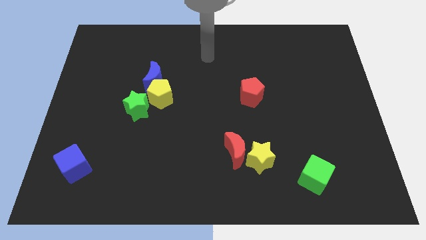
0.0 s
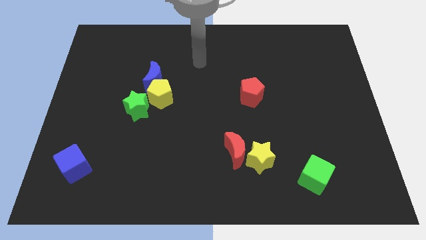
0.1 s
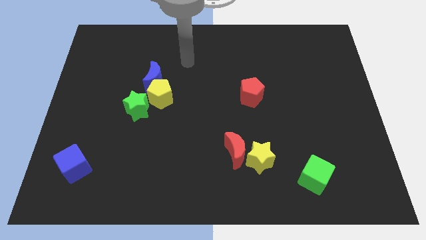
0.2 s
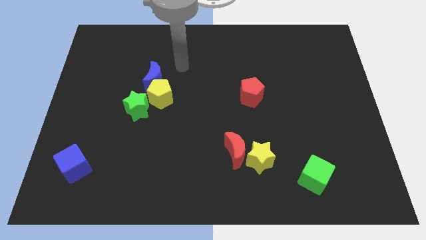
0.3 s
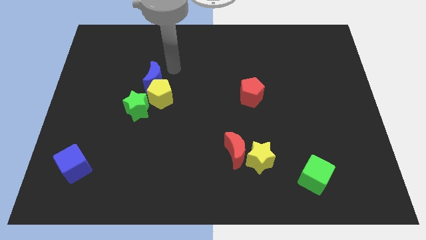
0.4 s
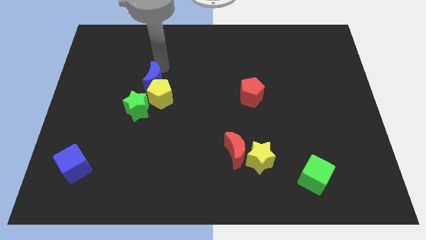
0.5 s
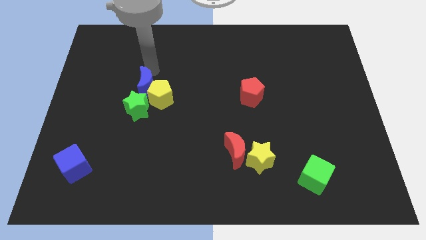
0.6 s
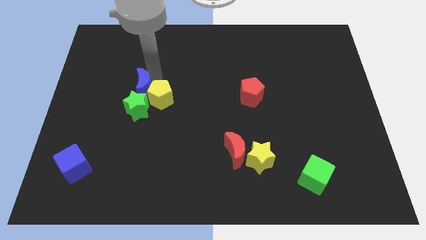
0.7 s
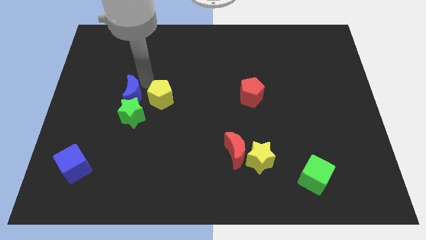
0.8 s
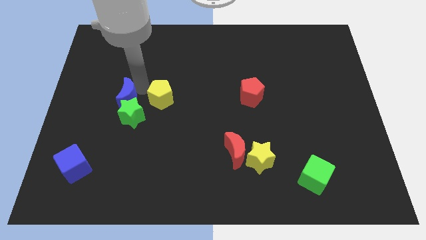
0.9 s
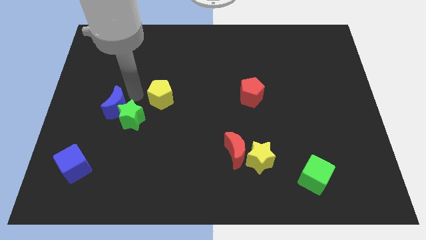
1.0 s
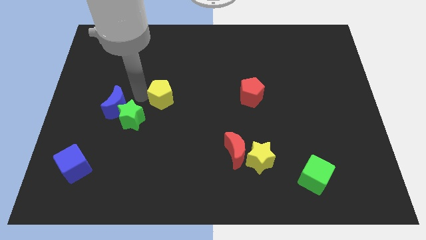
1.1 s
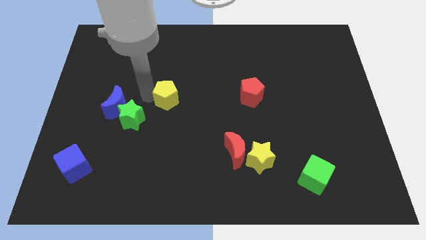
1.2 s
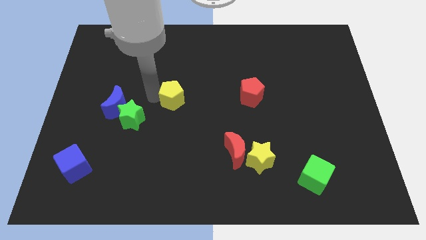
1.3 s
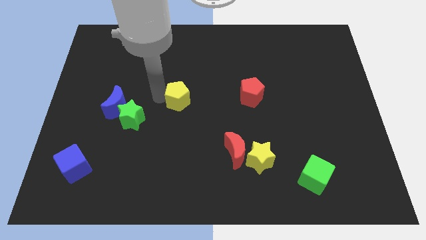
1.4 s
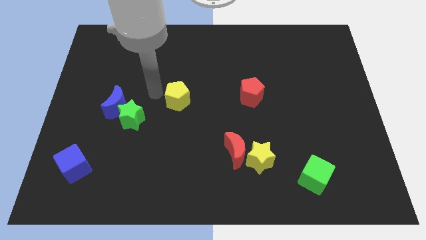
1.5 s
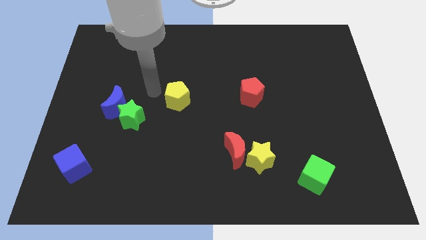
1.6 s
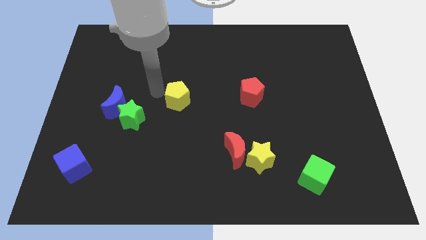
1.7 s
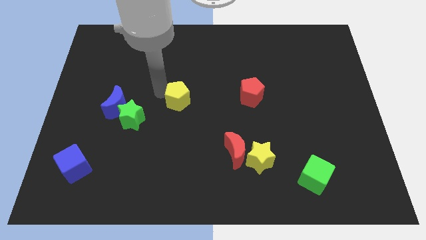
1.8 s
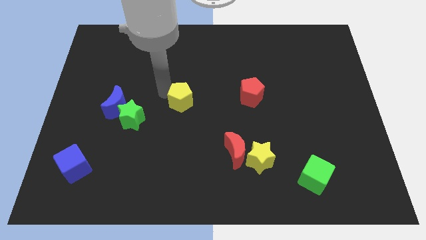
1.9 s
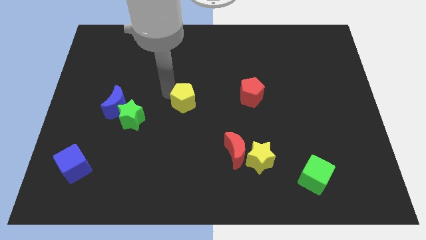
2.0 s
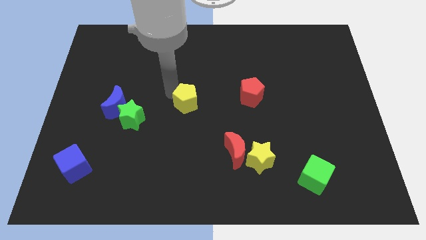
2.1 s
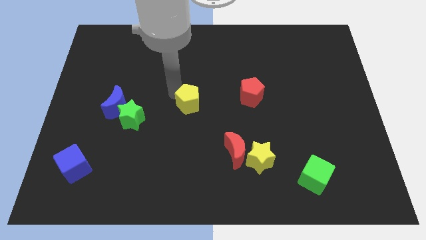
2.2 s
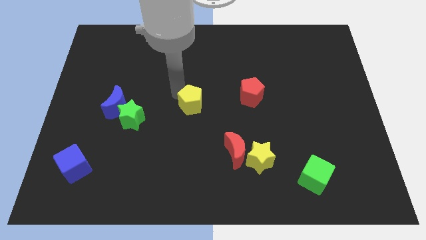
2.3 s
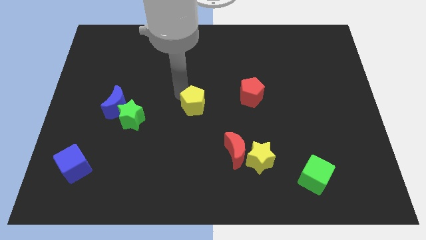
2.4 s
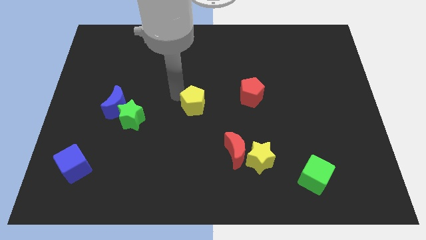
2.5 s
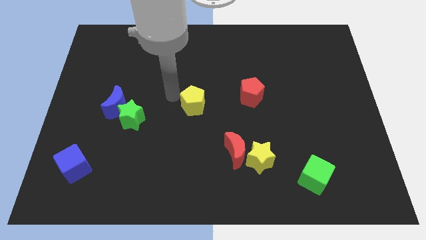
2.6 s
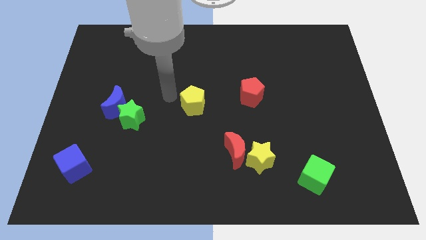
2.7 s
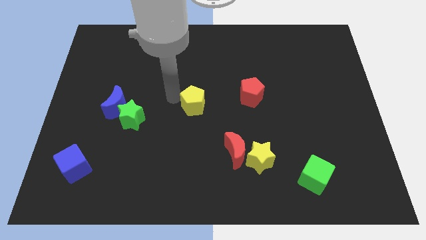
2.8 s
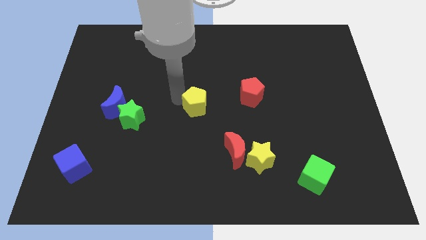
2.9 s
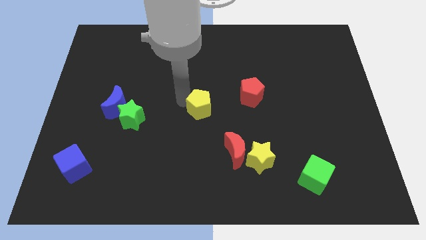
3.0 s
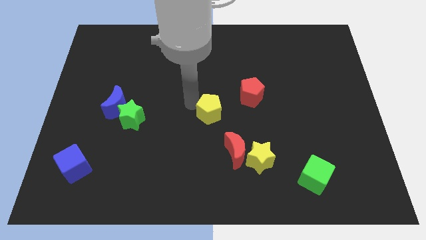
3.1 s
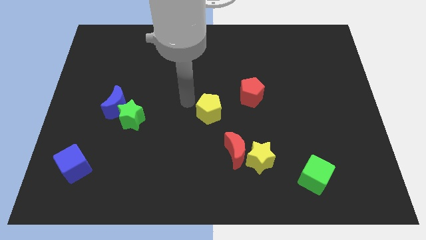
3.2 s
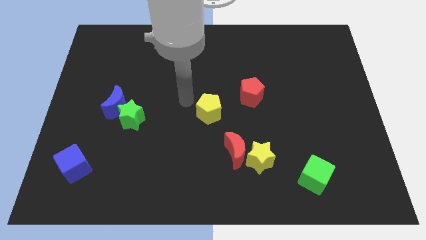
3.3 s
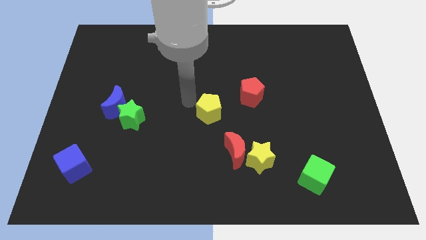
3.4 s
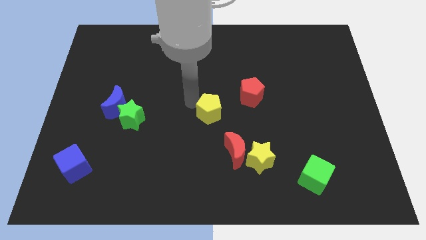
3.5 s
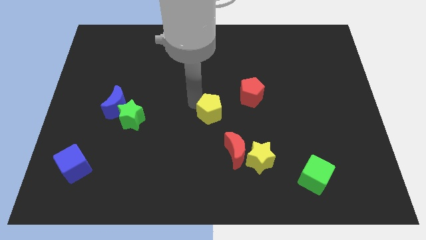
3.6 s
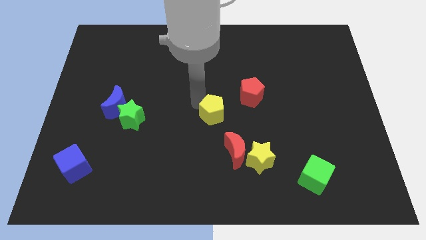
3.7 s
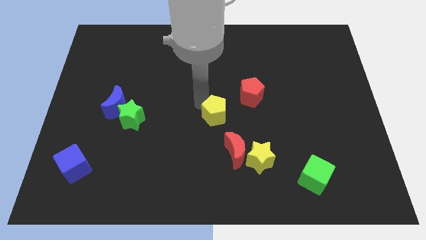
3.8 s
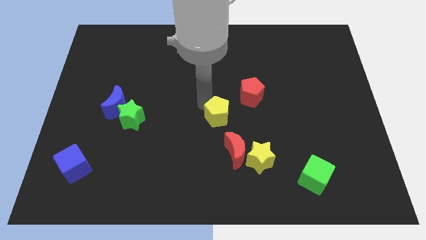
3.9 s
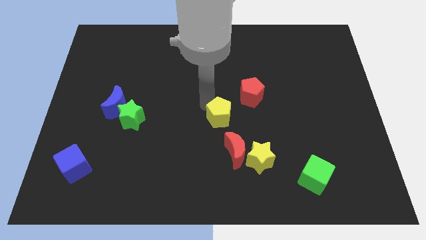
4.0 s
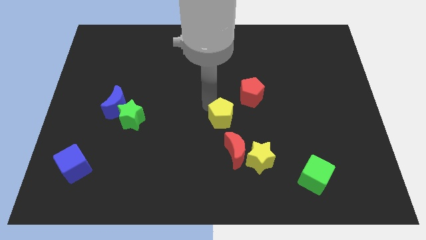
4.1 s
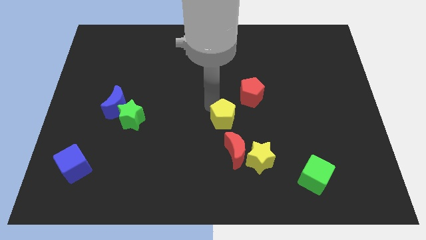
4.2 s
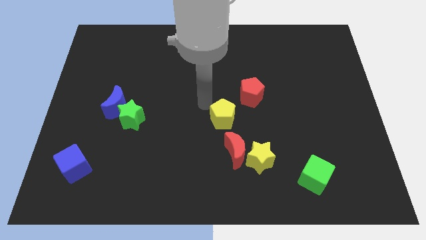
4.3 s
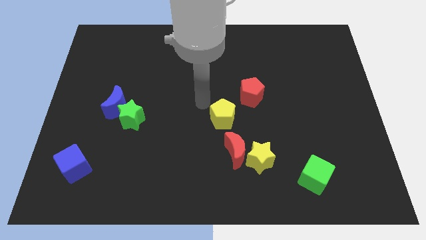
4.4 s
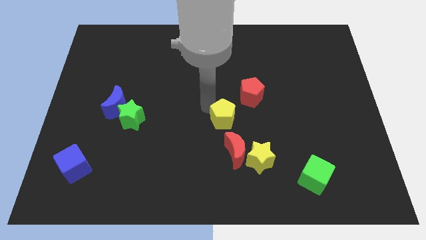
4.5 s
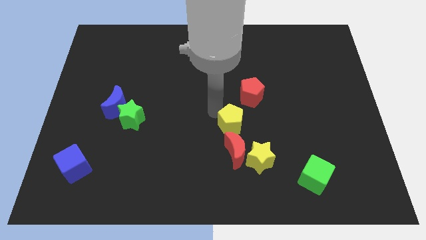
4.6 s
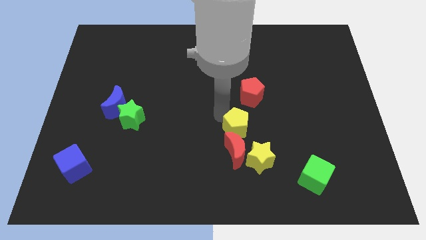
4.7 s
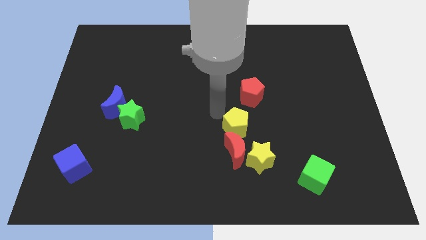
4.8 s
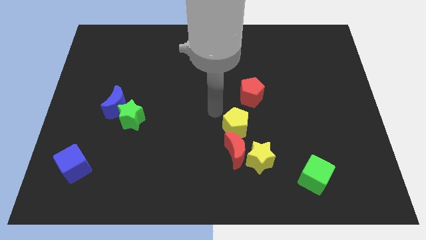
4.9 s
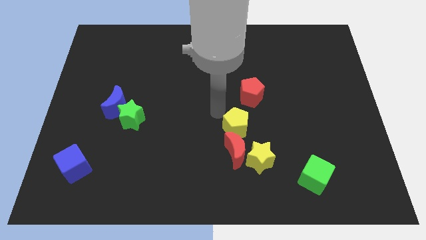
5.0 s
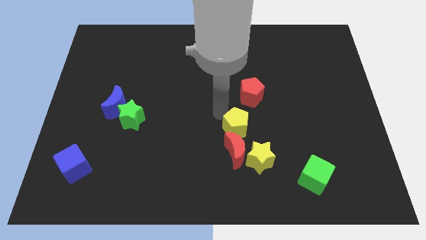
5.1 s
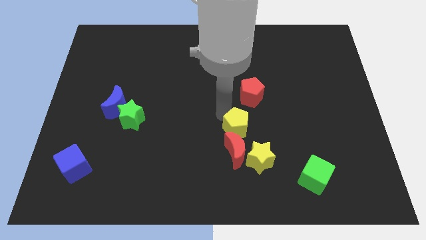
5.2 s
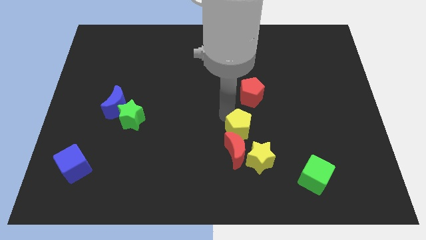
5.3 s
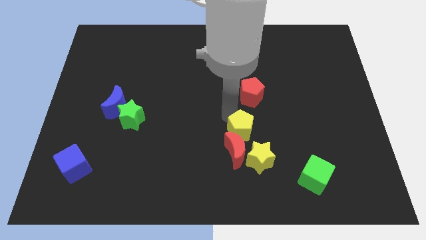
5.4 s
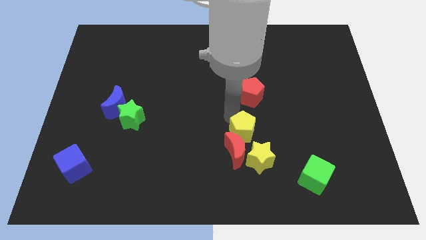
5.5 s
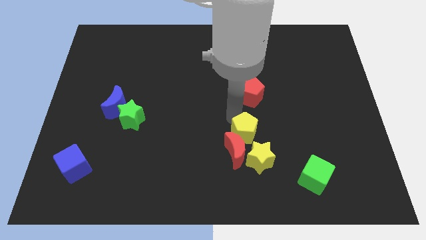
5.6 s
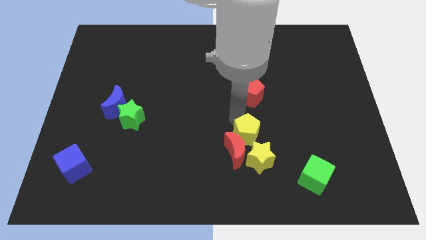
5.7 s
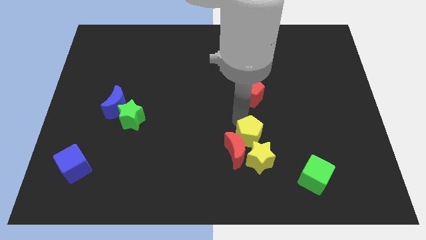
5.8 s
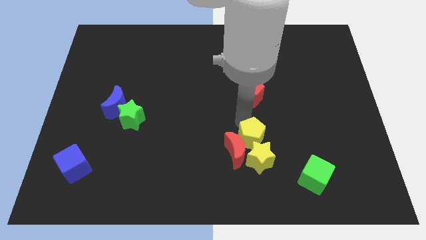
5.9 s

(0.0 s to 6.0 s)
push the yellow pentagon close to the yellow star
